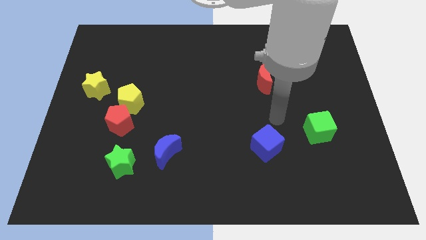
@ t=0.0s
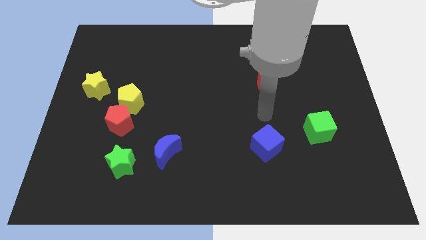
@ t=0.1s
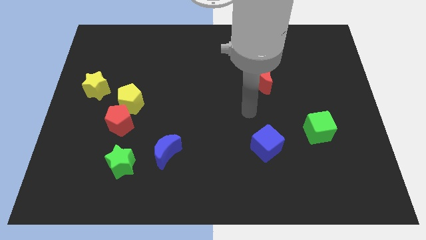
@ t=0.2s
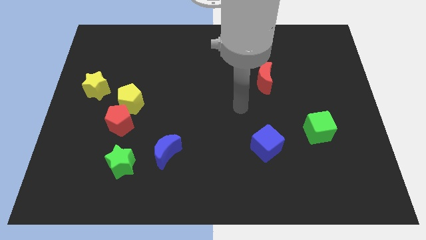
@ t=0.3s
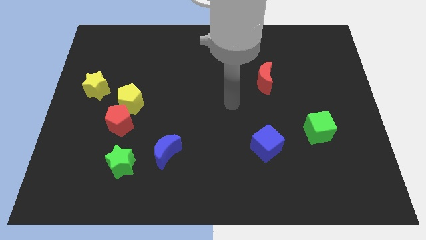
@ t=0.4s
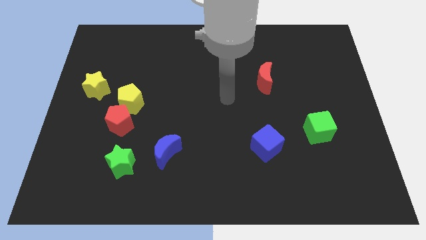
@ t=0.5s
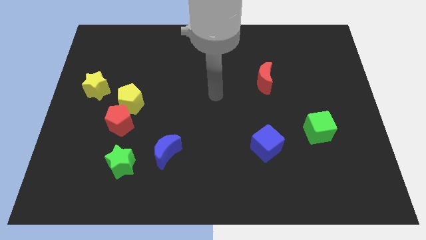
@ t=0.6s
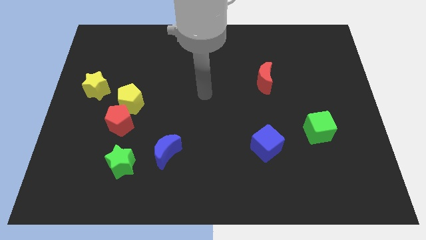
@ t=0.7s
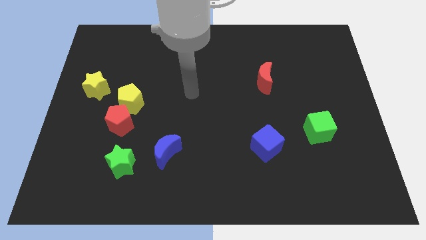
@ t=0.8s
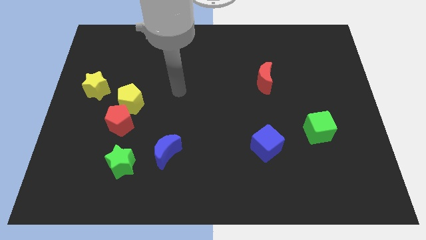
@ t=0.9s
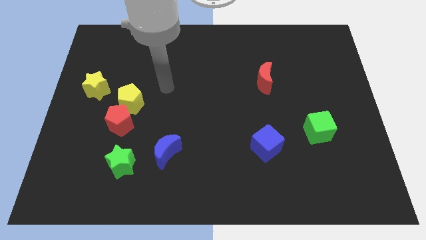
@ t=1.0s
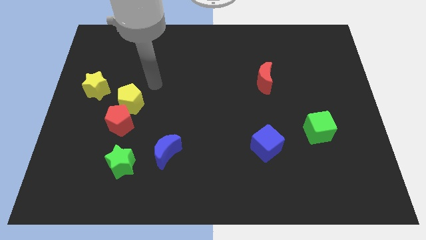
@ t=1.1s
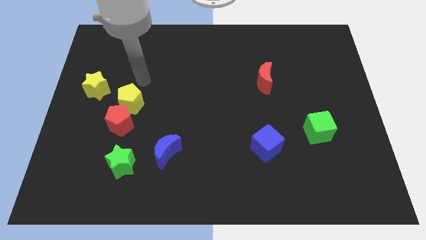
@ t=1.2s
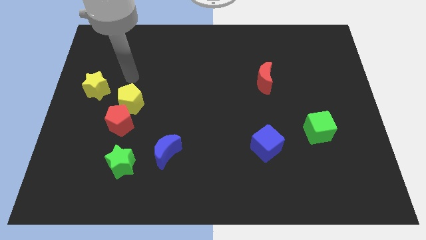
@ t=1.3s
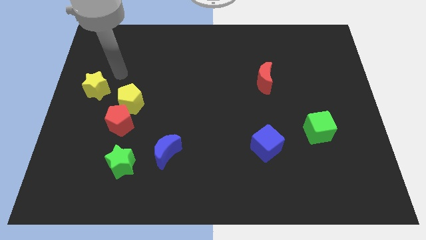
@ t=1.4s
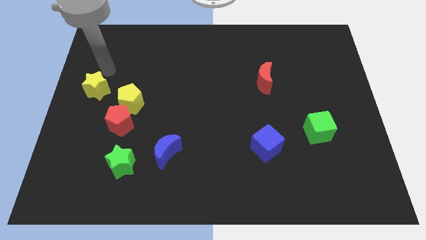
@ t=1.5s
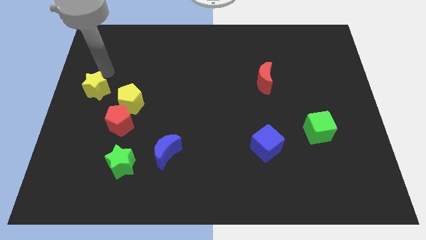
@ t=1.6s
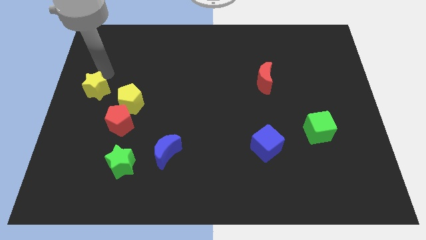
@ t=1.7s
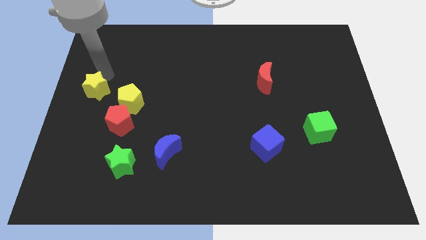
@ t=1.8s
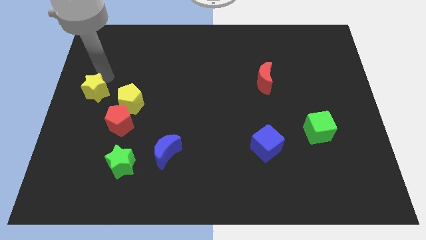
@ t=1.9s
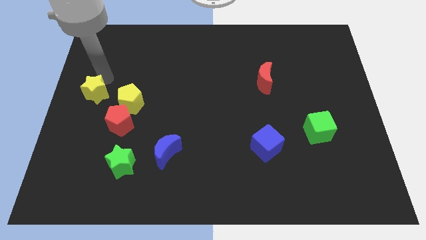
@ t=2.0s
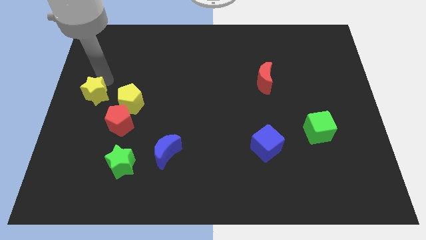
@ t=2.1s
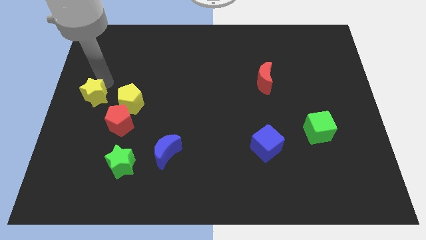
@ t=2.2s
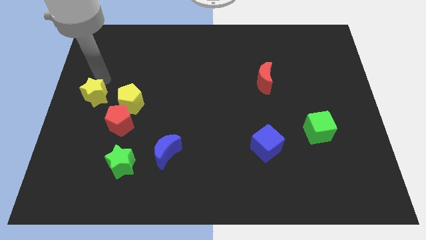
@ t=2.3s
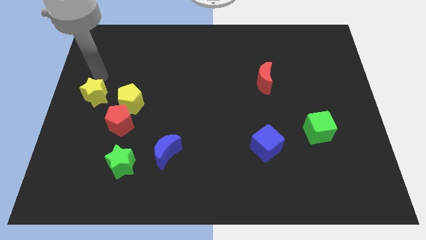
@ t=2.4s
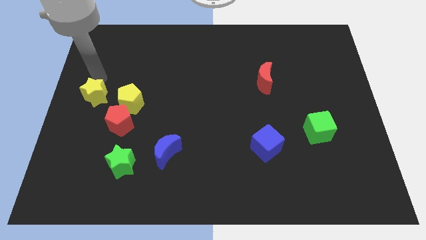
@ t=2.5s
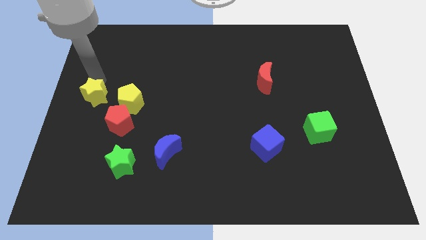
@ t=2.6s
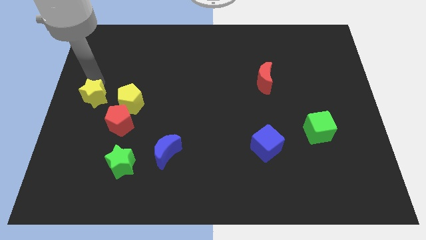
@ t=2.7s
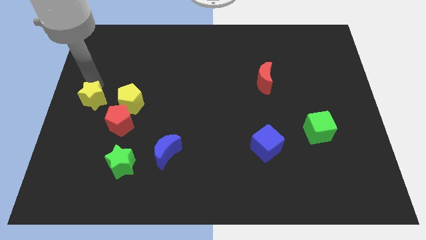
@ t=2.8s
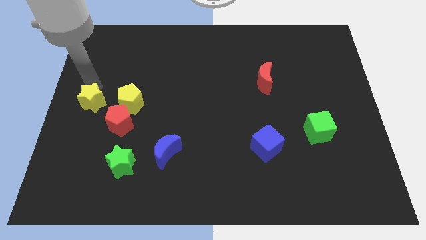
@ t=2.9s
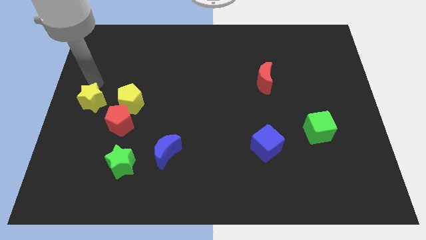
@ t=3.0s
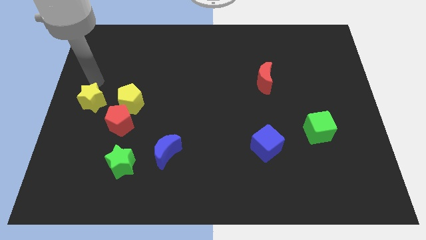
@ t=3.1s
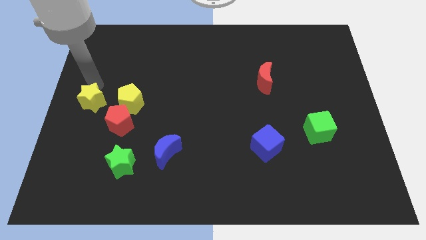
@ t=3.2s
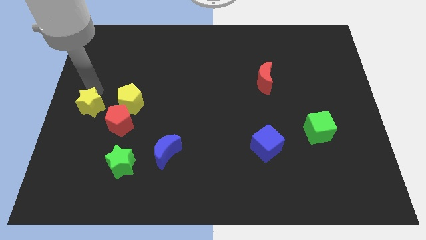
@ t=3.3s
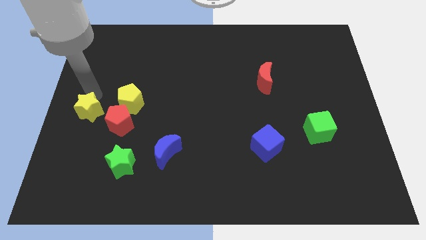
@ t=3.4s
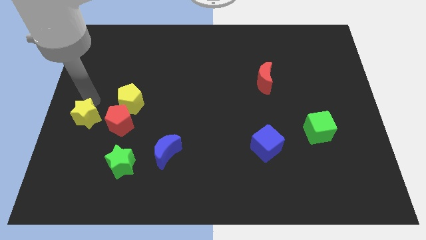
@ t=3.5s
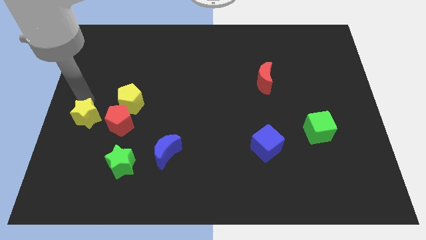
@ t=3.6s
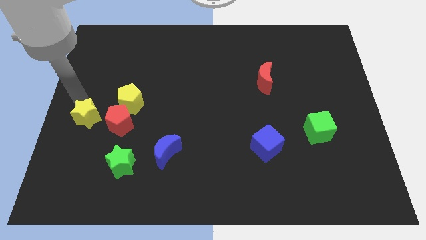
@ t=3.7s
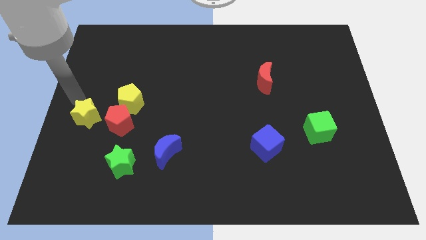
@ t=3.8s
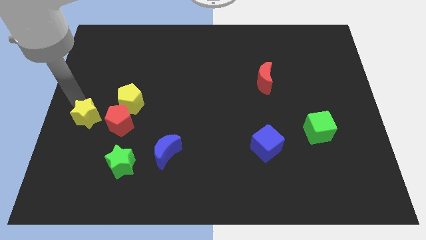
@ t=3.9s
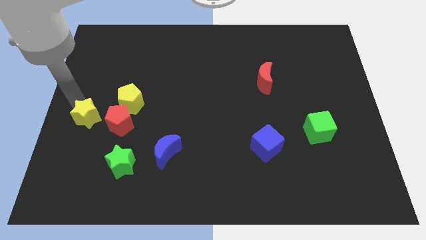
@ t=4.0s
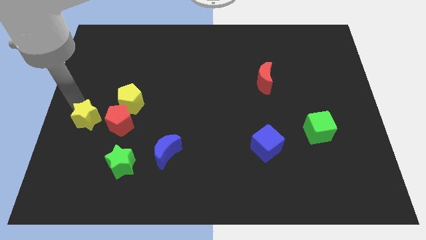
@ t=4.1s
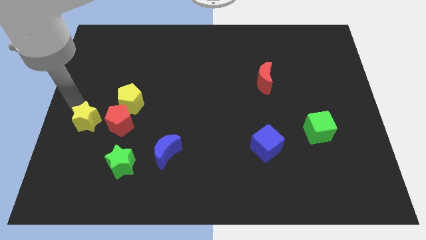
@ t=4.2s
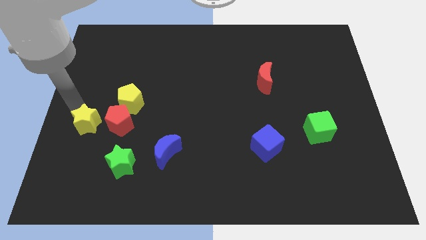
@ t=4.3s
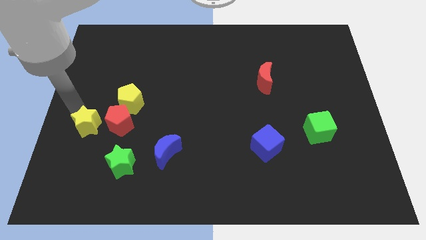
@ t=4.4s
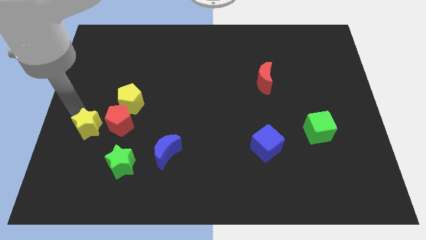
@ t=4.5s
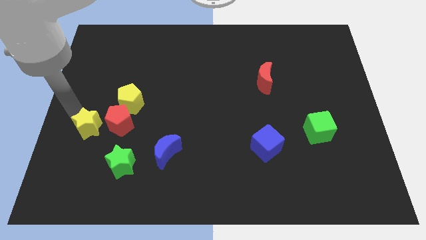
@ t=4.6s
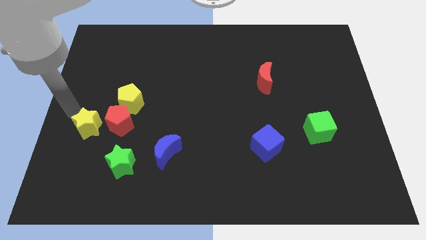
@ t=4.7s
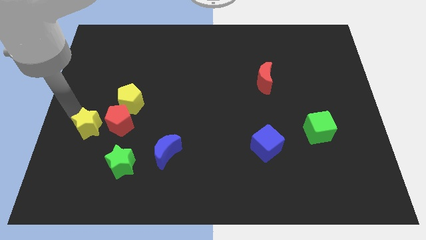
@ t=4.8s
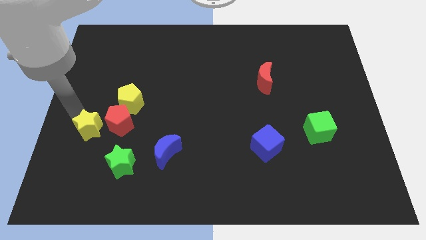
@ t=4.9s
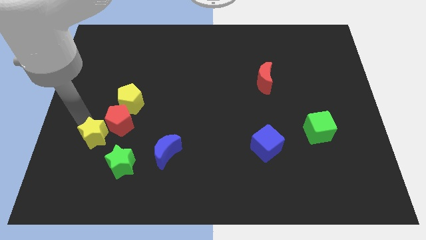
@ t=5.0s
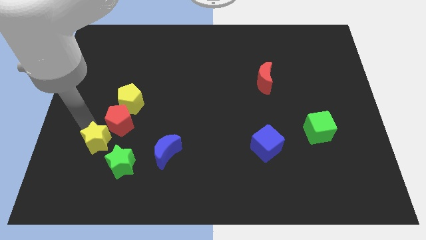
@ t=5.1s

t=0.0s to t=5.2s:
push the yellow star to the left side of the blue moon

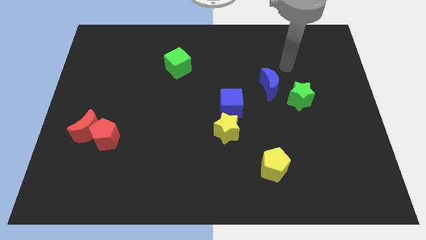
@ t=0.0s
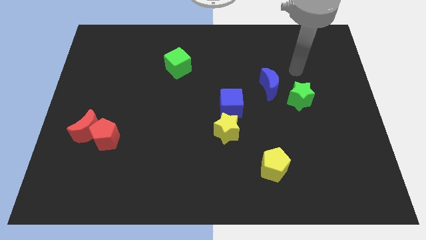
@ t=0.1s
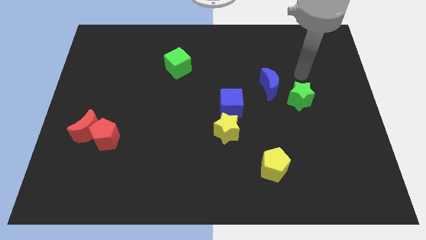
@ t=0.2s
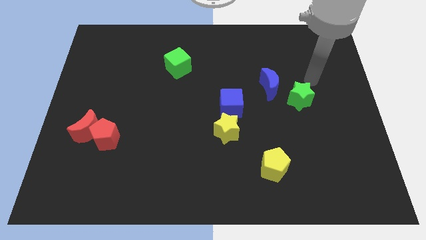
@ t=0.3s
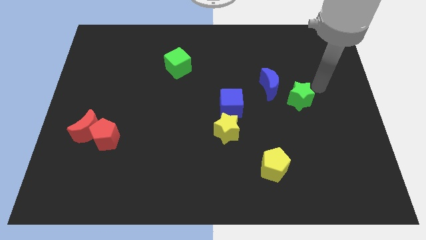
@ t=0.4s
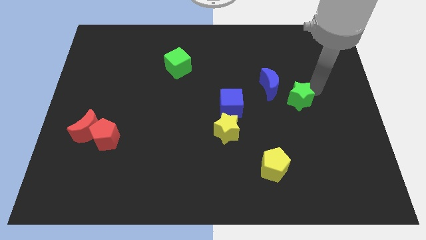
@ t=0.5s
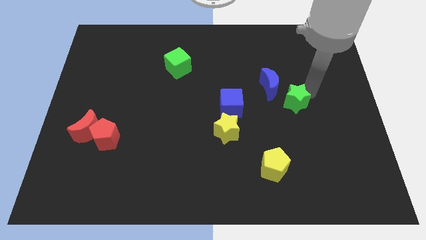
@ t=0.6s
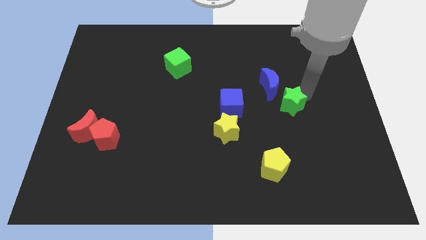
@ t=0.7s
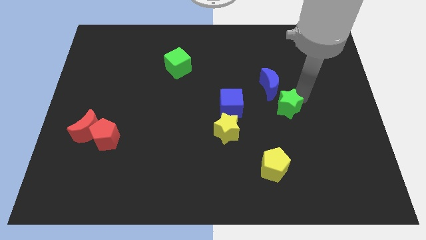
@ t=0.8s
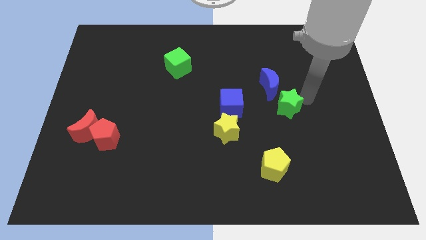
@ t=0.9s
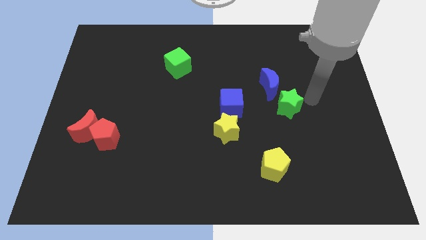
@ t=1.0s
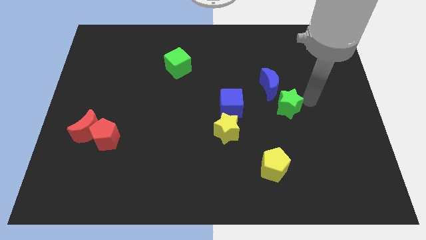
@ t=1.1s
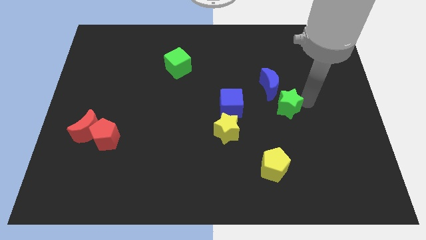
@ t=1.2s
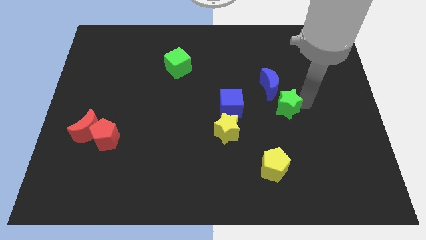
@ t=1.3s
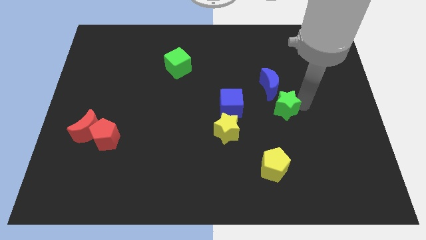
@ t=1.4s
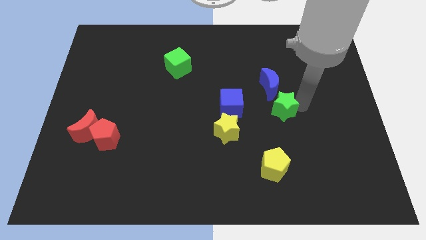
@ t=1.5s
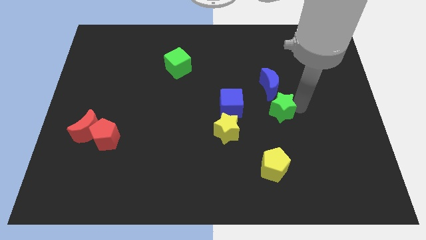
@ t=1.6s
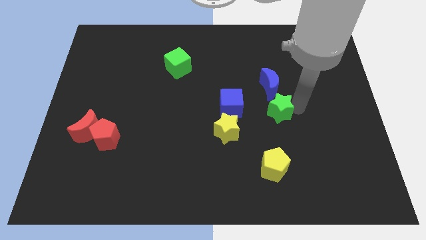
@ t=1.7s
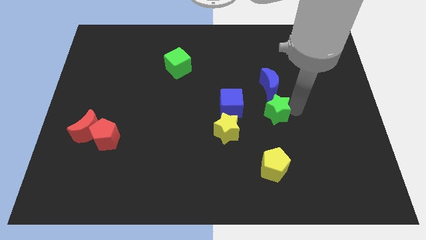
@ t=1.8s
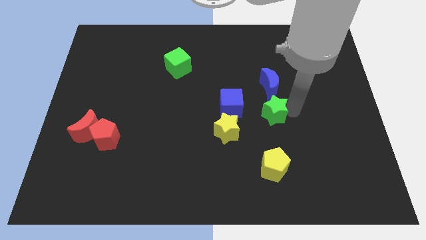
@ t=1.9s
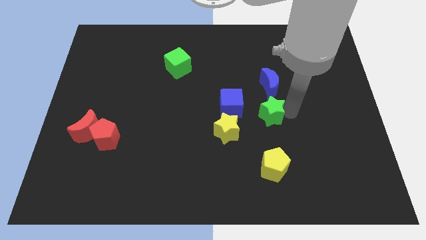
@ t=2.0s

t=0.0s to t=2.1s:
put the green star diagonally up and to the right of the yellow star
